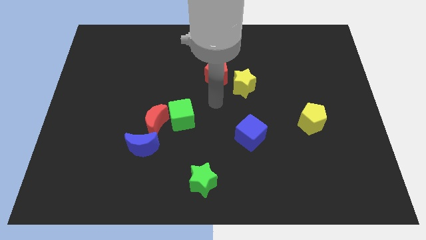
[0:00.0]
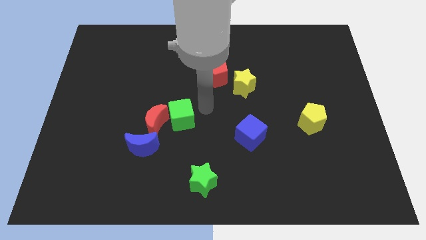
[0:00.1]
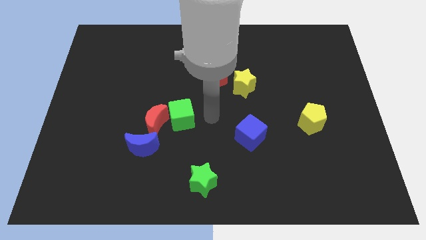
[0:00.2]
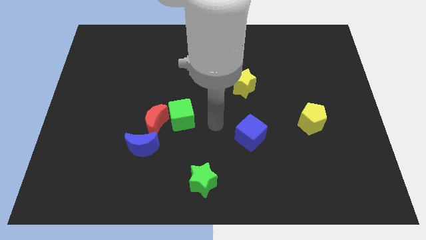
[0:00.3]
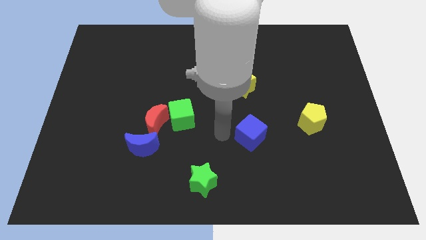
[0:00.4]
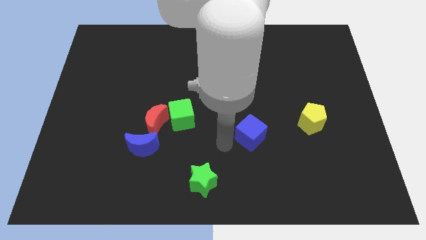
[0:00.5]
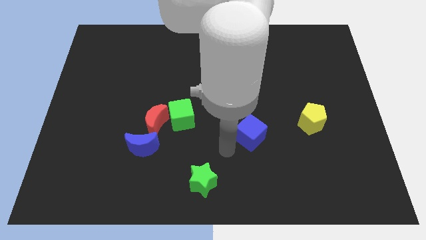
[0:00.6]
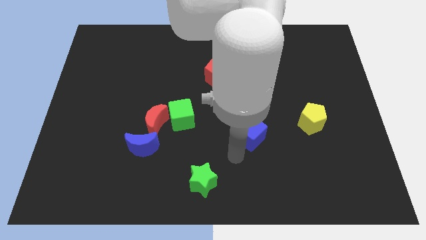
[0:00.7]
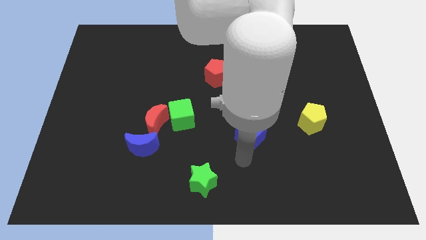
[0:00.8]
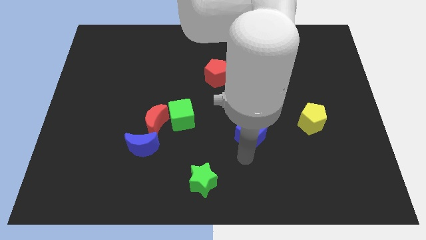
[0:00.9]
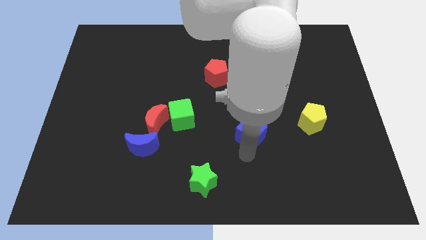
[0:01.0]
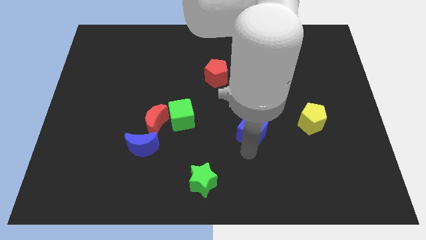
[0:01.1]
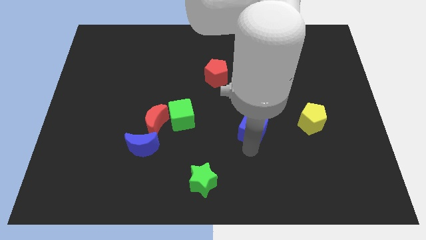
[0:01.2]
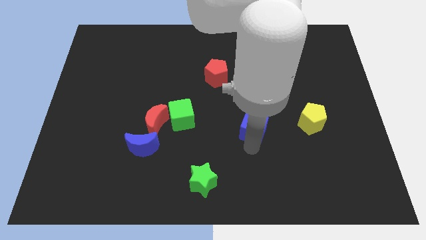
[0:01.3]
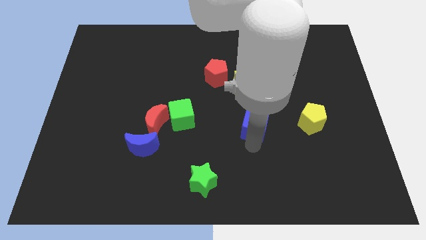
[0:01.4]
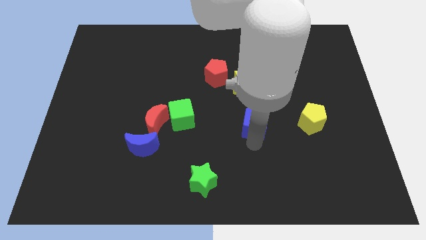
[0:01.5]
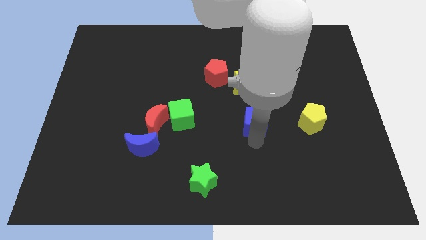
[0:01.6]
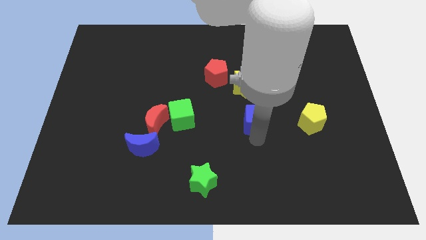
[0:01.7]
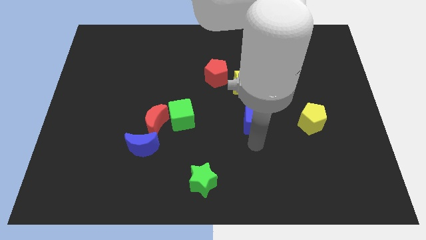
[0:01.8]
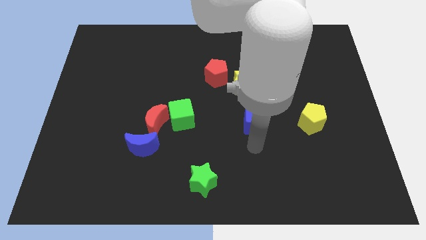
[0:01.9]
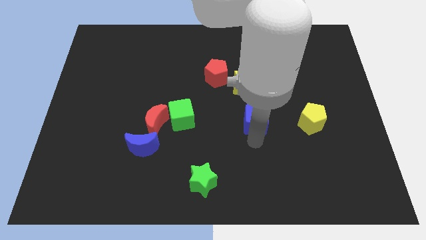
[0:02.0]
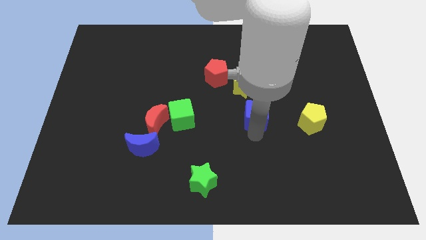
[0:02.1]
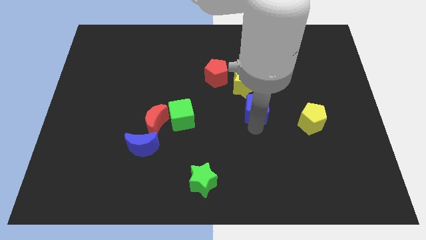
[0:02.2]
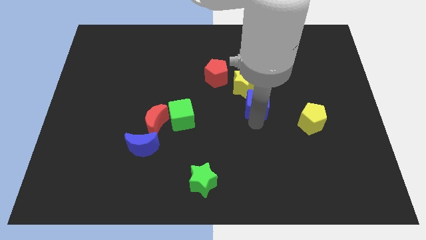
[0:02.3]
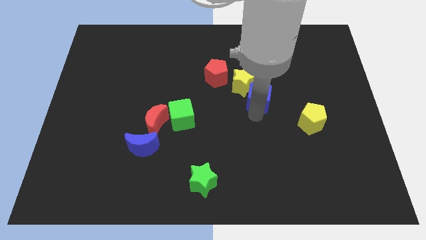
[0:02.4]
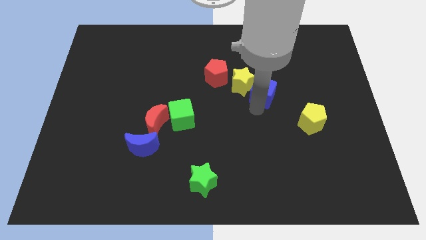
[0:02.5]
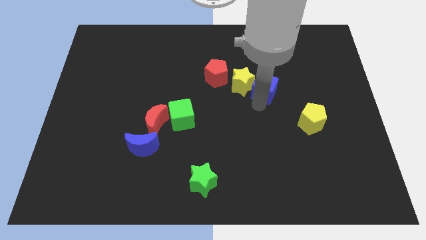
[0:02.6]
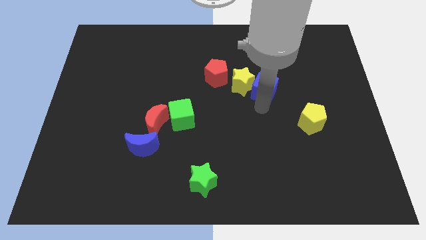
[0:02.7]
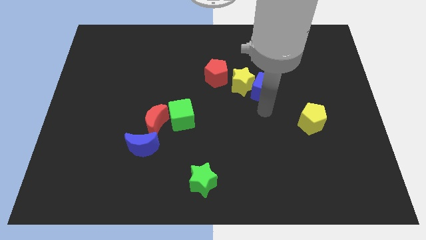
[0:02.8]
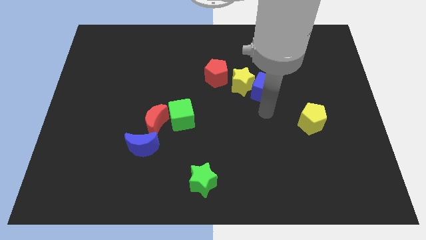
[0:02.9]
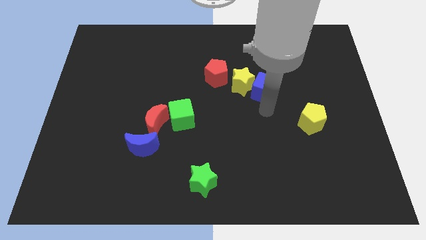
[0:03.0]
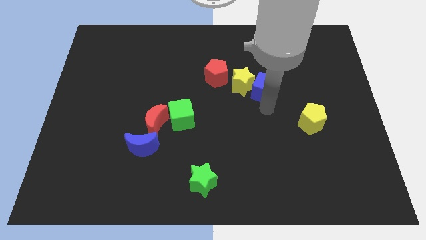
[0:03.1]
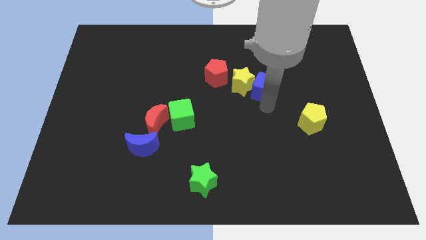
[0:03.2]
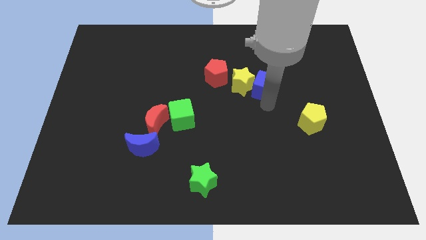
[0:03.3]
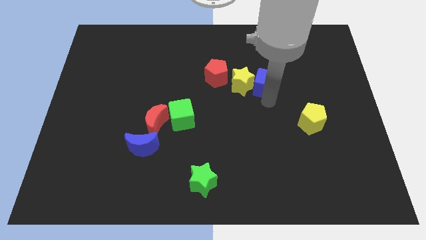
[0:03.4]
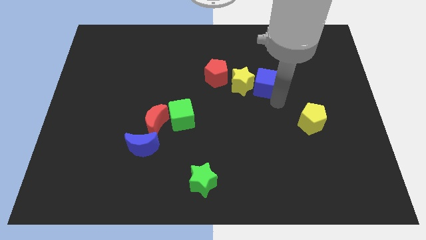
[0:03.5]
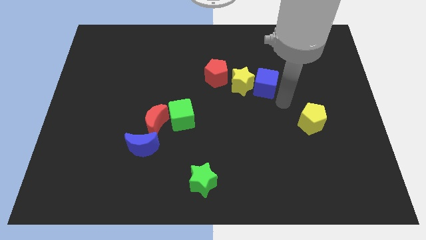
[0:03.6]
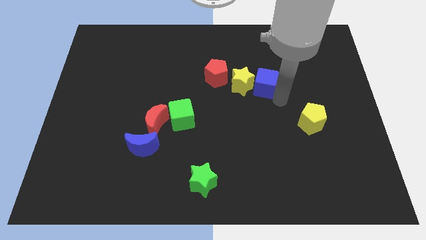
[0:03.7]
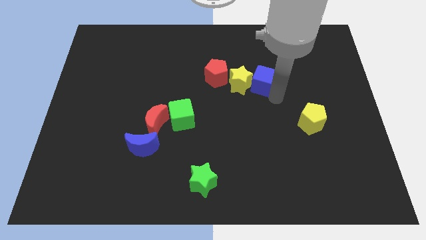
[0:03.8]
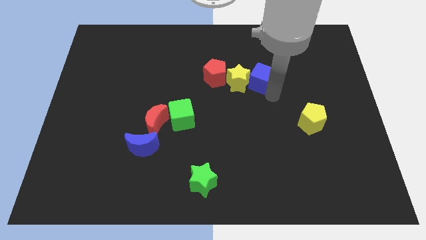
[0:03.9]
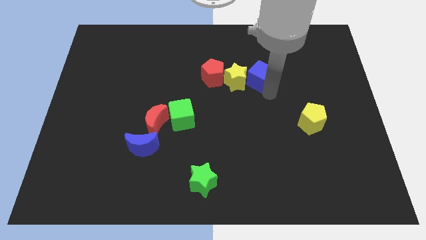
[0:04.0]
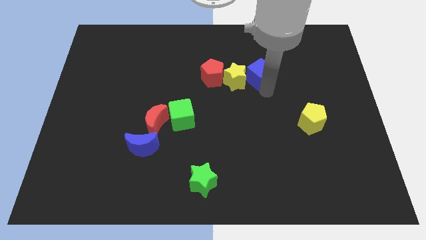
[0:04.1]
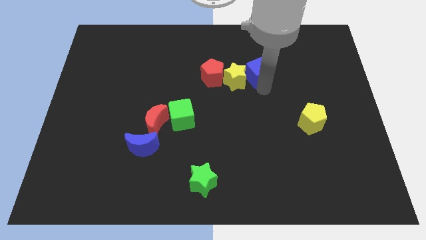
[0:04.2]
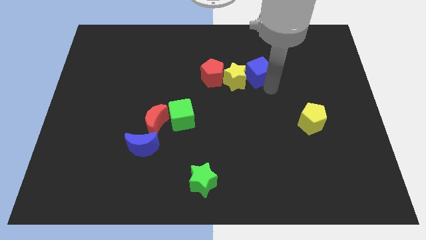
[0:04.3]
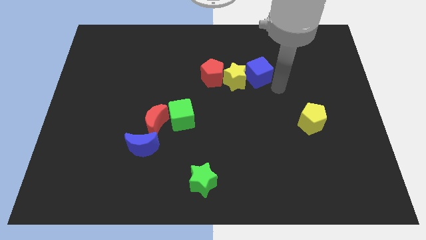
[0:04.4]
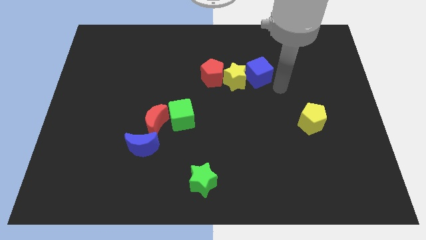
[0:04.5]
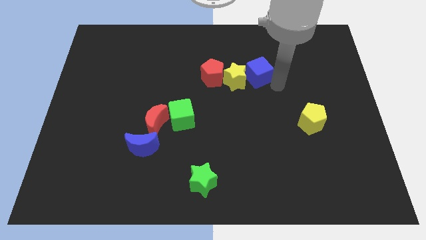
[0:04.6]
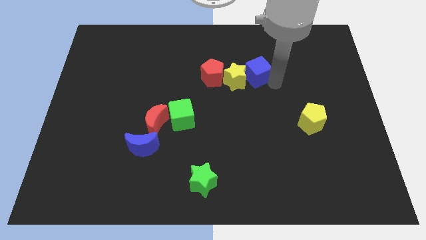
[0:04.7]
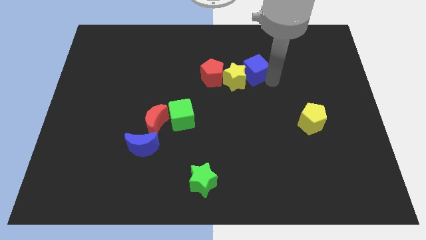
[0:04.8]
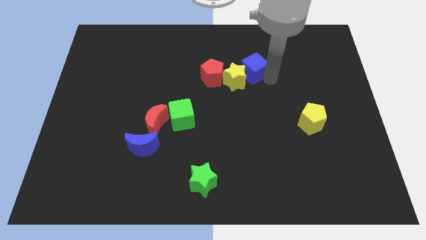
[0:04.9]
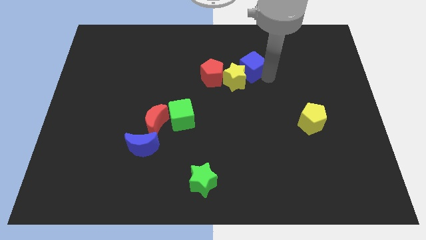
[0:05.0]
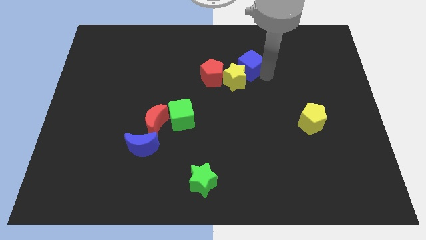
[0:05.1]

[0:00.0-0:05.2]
push the blue cube to the top right of the red pentagon

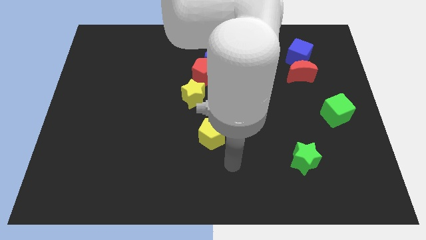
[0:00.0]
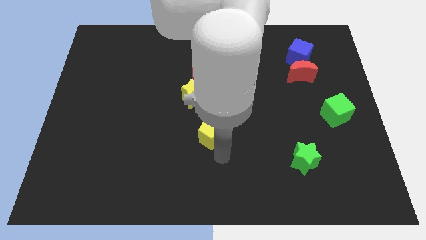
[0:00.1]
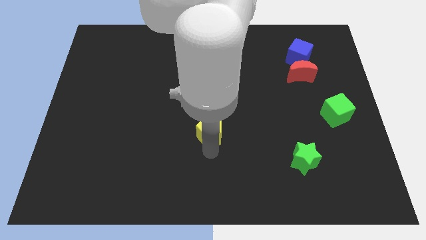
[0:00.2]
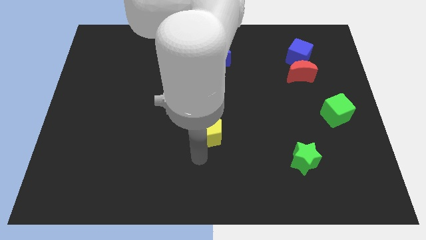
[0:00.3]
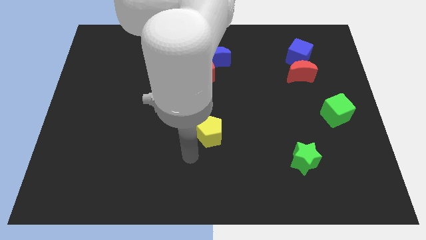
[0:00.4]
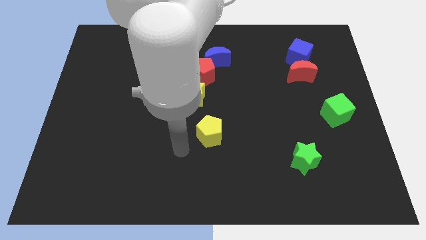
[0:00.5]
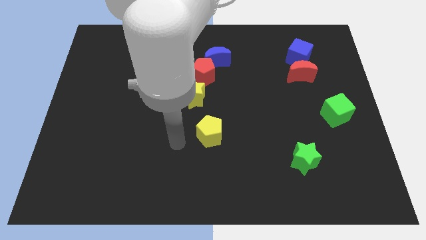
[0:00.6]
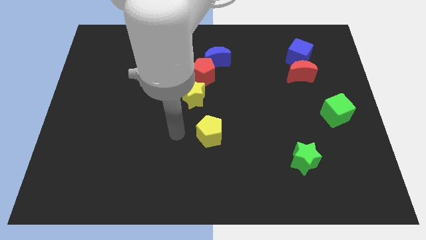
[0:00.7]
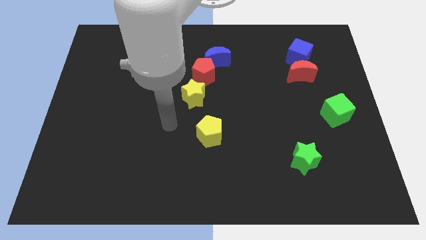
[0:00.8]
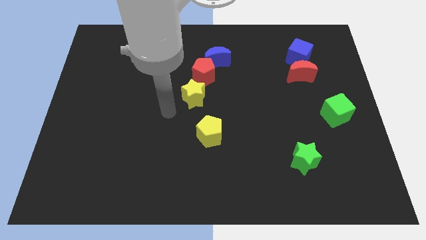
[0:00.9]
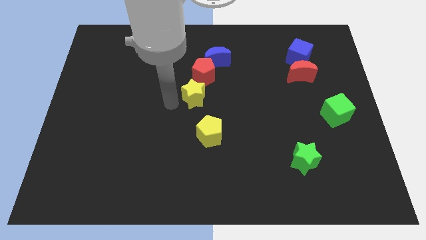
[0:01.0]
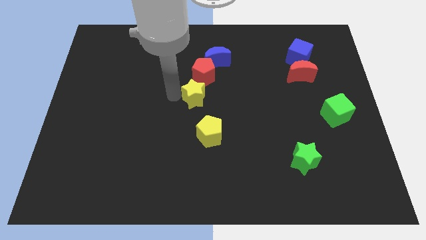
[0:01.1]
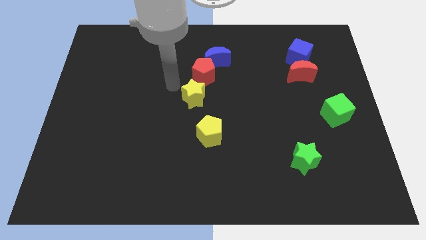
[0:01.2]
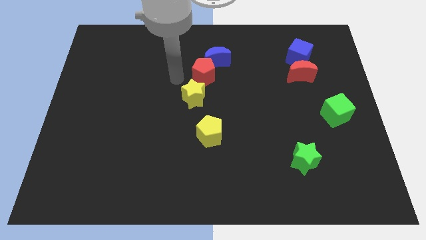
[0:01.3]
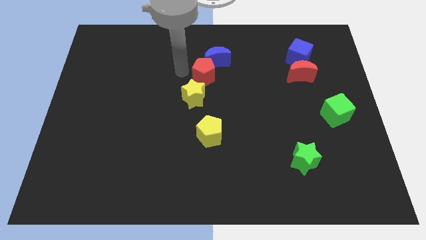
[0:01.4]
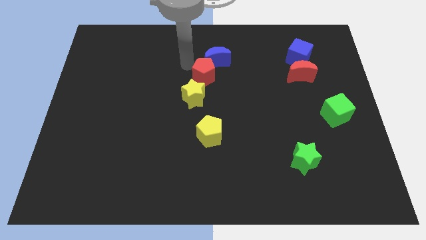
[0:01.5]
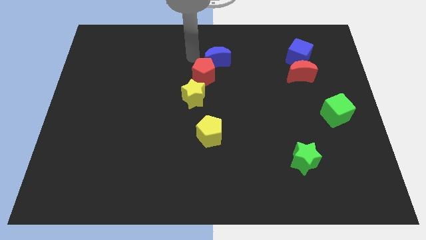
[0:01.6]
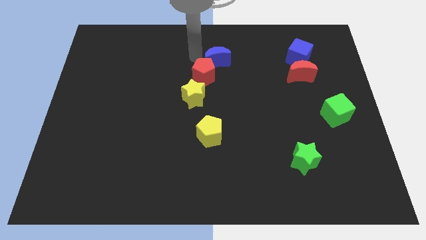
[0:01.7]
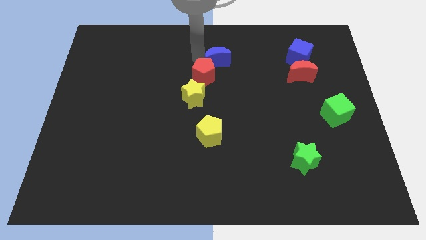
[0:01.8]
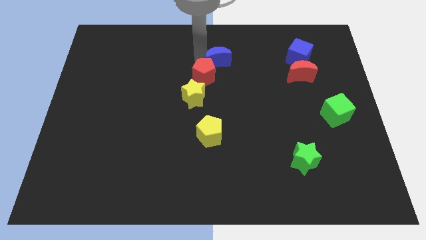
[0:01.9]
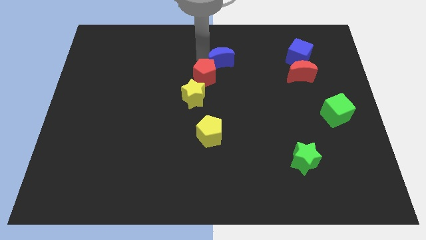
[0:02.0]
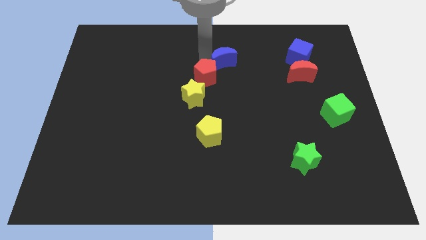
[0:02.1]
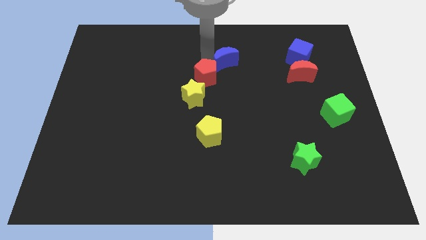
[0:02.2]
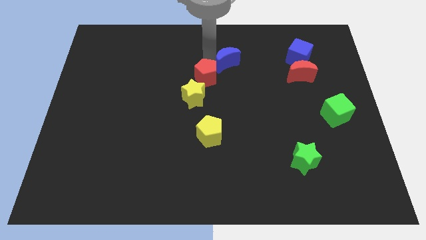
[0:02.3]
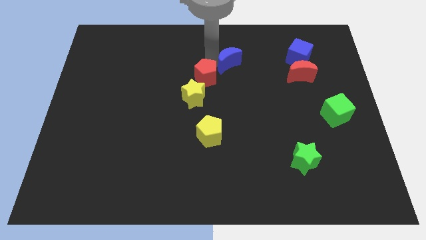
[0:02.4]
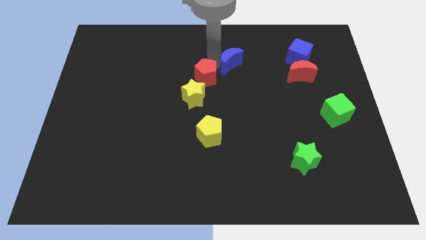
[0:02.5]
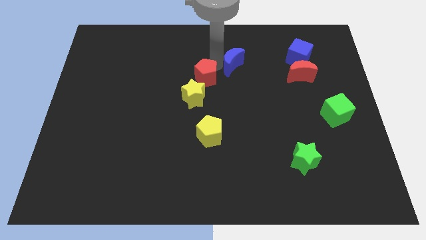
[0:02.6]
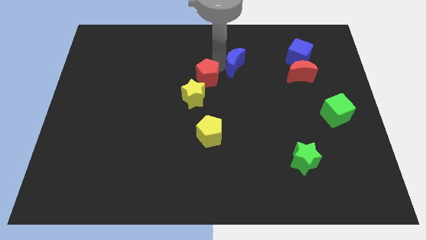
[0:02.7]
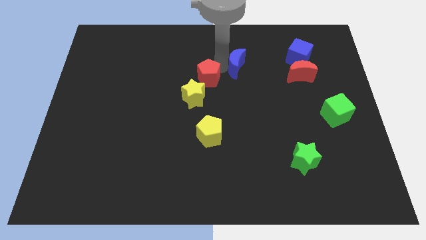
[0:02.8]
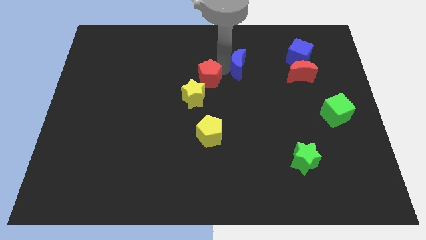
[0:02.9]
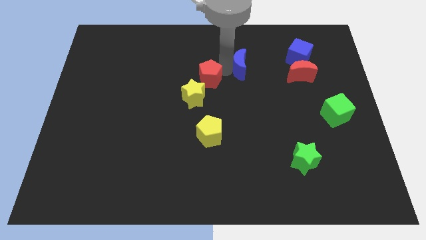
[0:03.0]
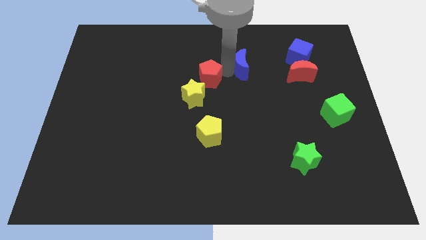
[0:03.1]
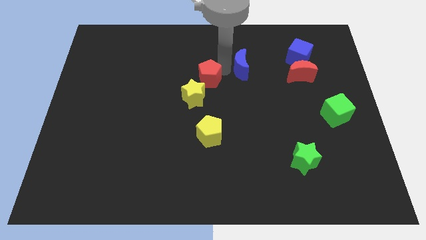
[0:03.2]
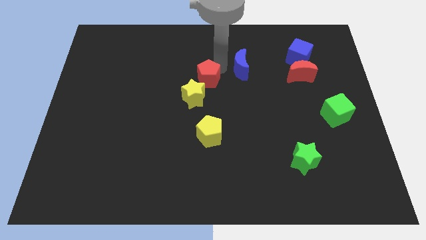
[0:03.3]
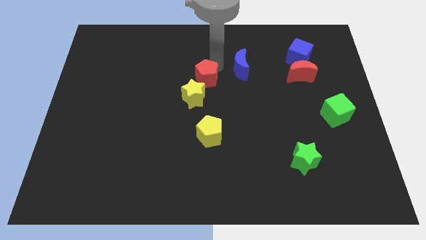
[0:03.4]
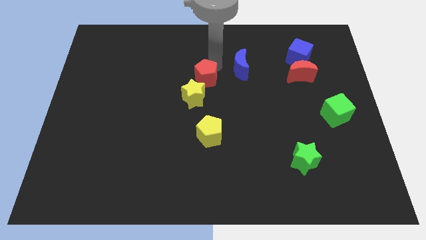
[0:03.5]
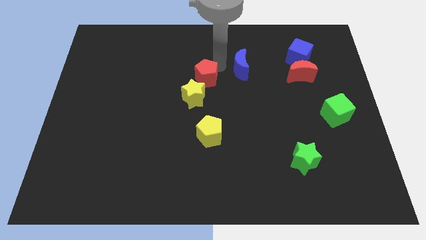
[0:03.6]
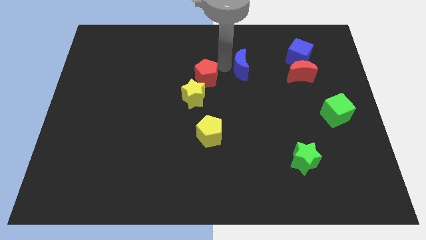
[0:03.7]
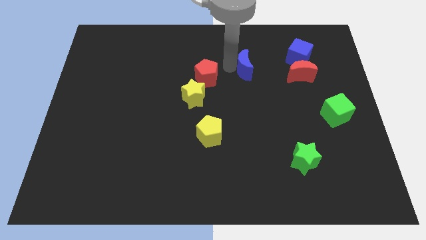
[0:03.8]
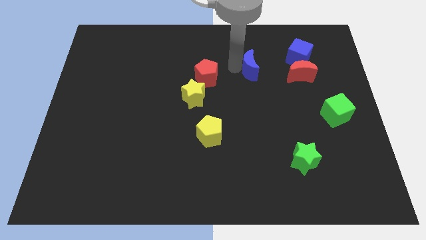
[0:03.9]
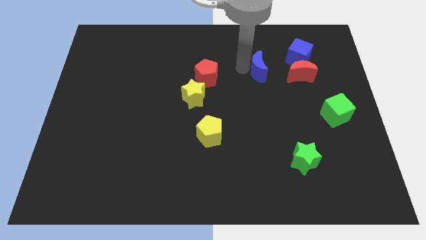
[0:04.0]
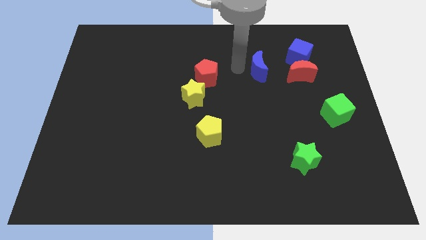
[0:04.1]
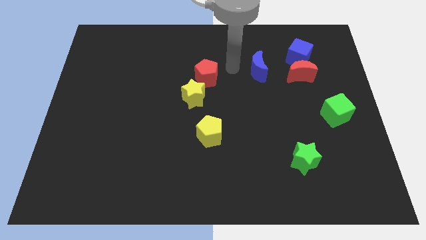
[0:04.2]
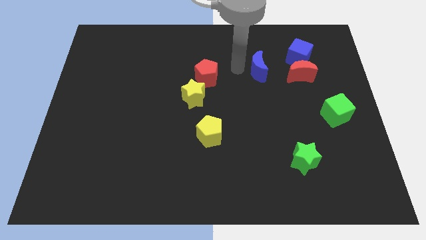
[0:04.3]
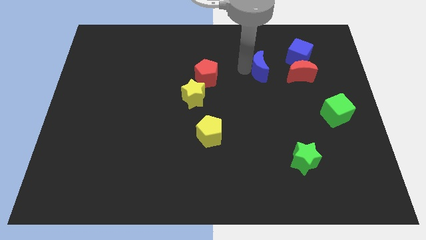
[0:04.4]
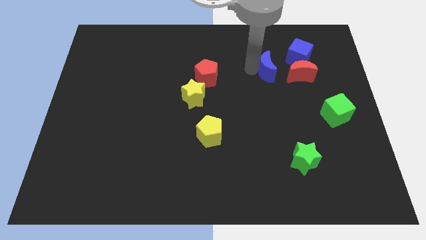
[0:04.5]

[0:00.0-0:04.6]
push the blue moon diagonally down and to the left of the blue cube
